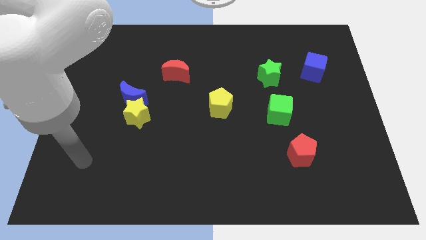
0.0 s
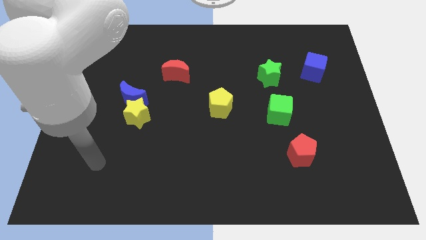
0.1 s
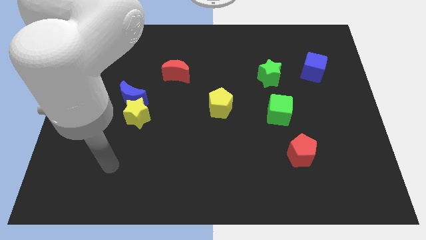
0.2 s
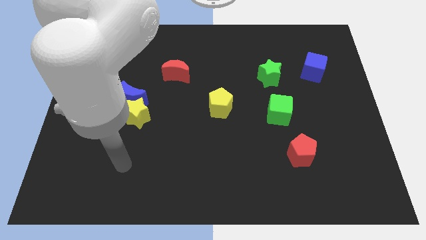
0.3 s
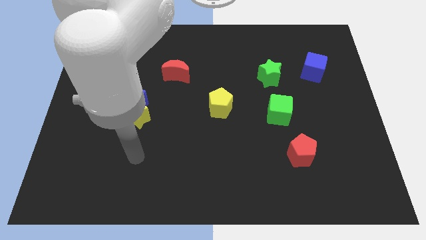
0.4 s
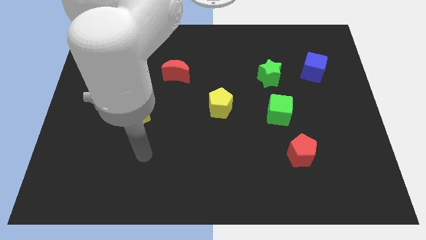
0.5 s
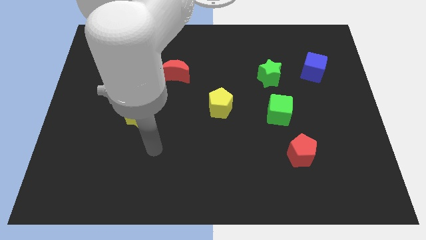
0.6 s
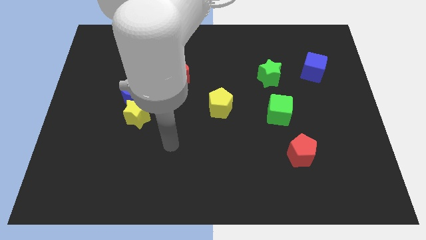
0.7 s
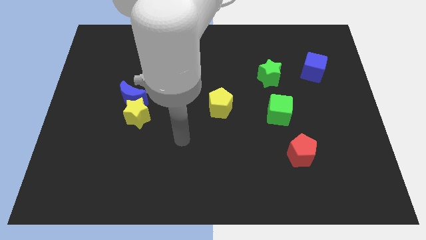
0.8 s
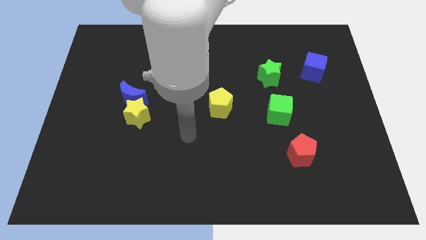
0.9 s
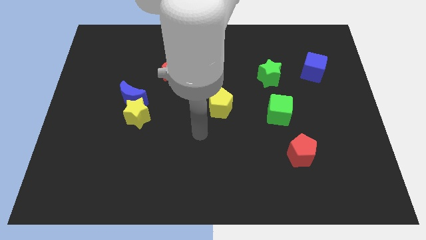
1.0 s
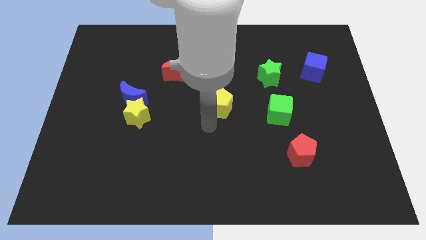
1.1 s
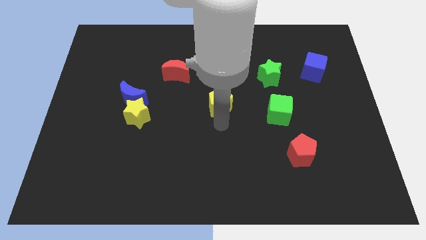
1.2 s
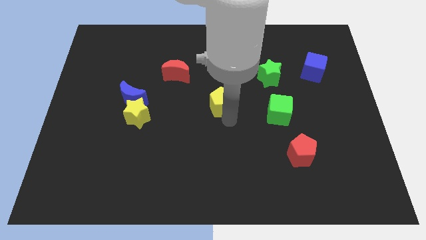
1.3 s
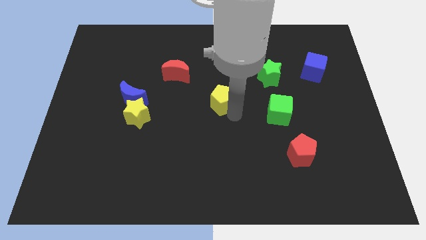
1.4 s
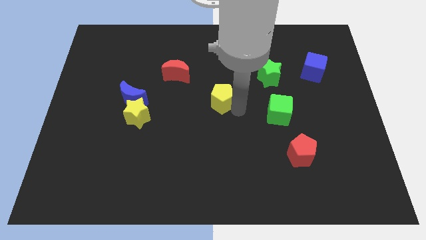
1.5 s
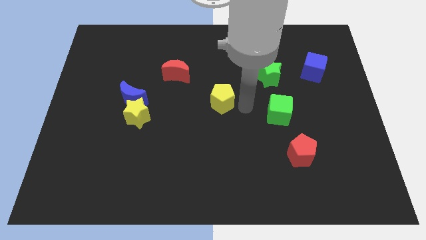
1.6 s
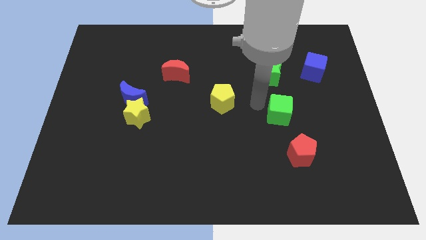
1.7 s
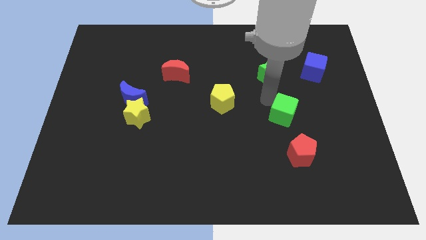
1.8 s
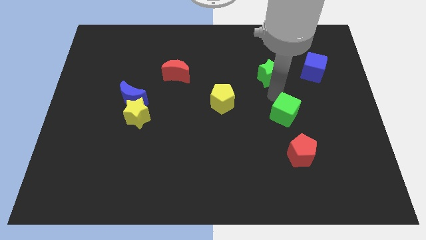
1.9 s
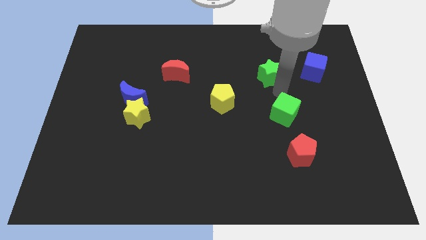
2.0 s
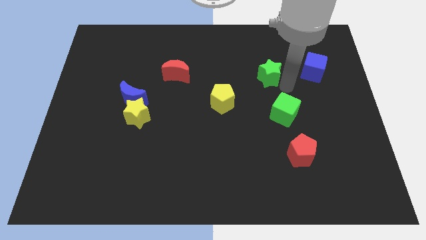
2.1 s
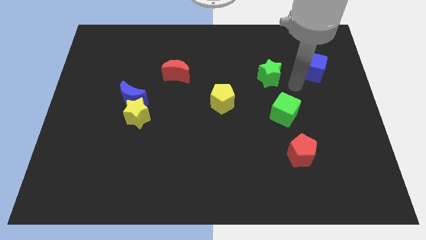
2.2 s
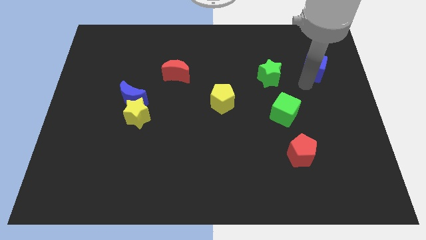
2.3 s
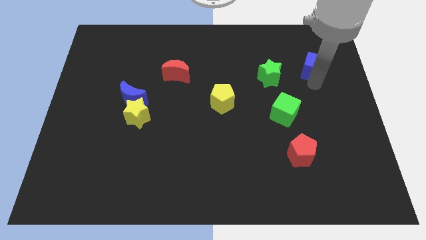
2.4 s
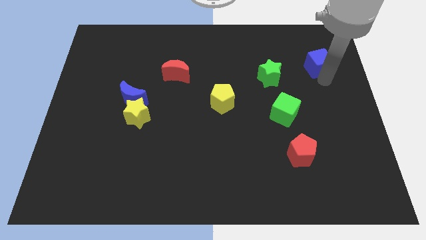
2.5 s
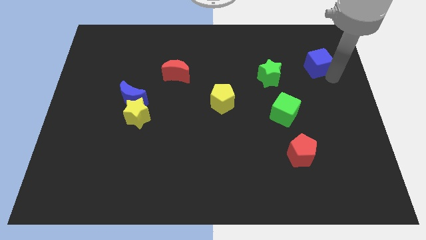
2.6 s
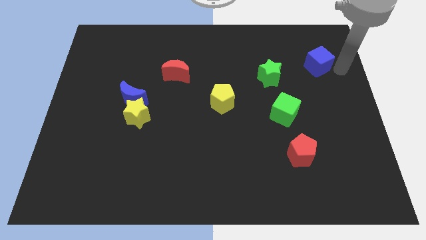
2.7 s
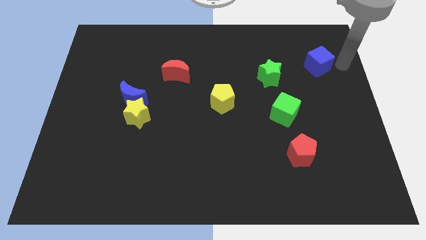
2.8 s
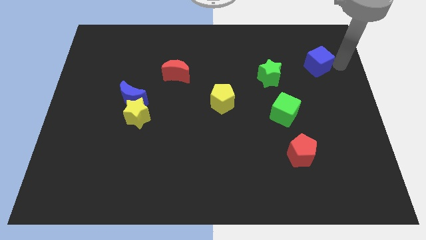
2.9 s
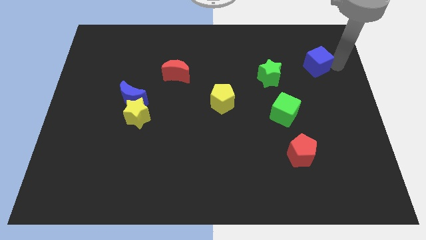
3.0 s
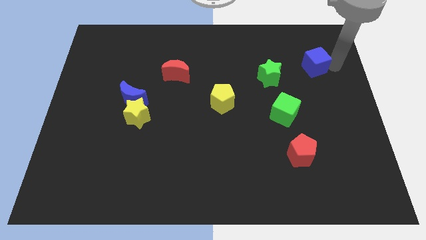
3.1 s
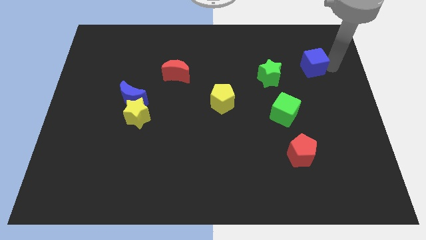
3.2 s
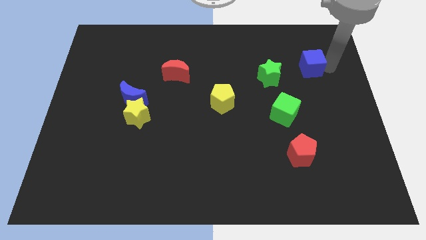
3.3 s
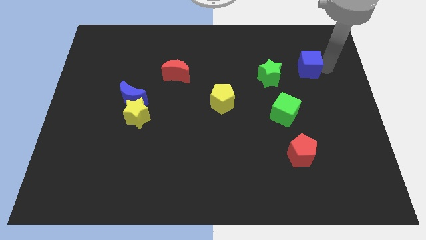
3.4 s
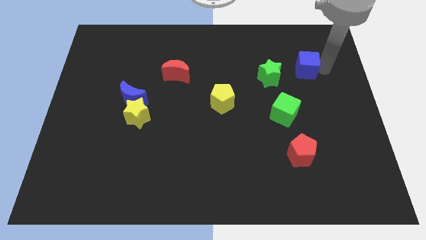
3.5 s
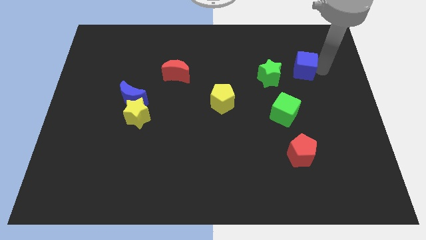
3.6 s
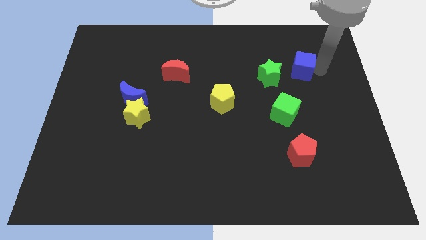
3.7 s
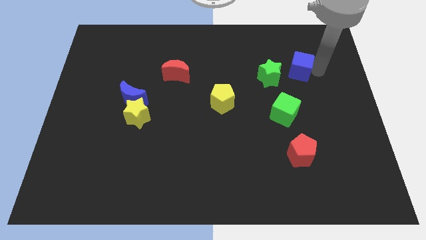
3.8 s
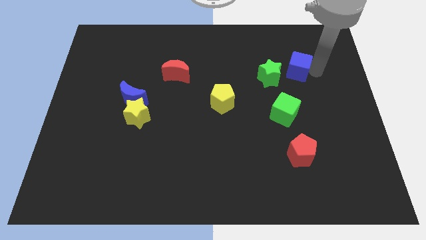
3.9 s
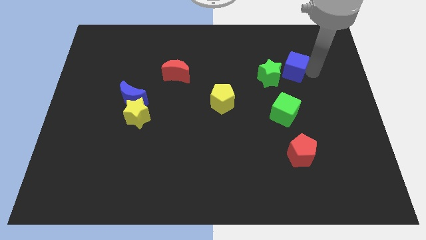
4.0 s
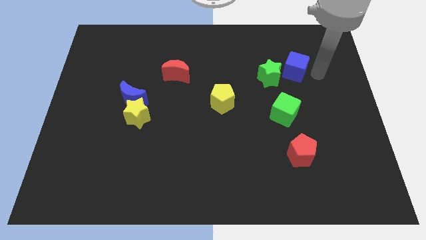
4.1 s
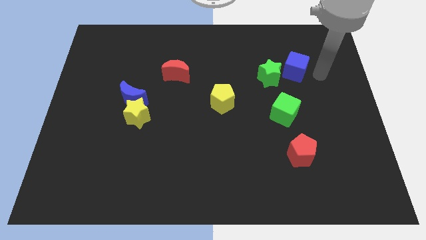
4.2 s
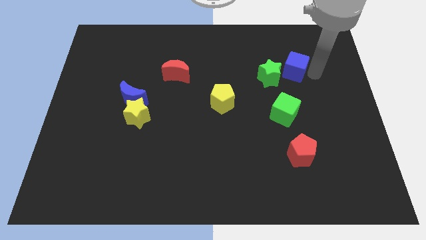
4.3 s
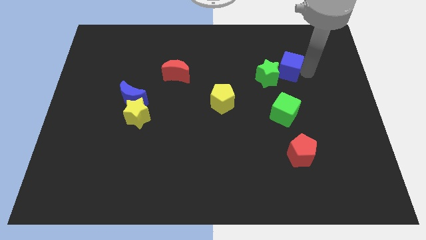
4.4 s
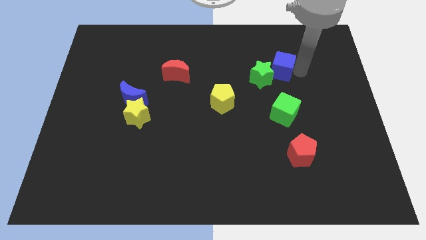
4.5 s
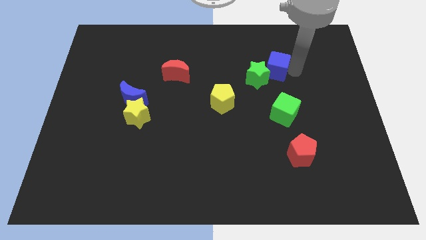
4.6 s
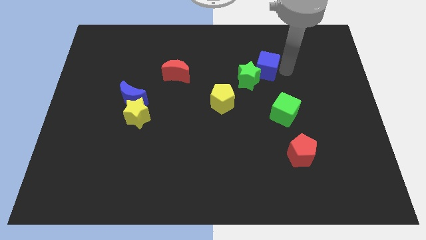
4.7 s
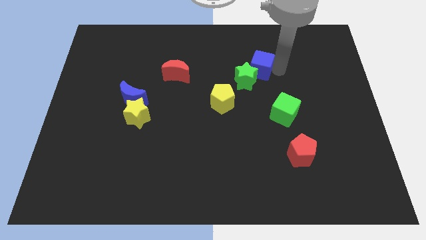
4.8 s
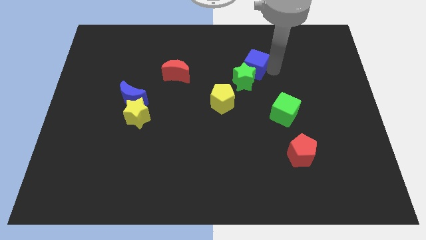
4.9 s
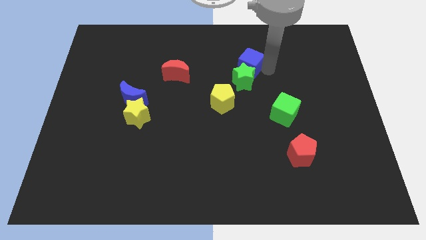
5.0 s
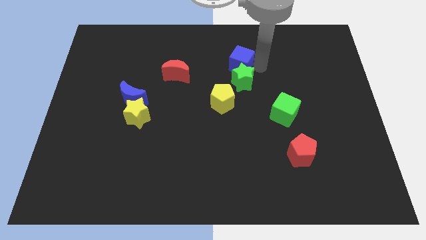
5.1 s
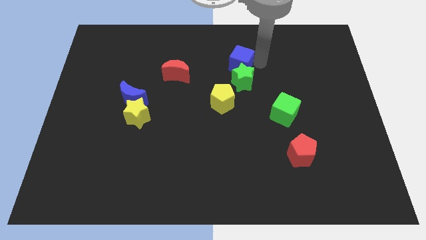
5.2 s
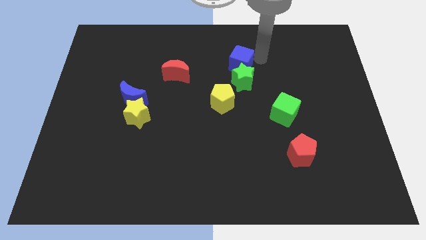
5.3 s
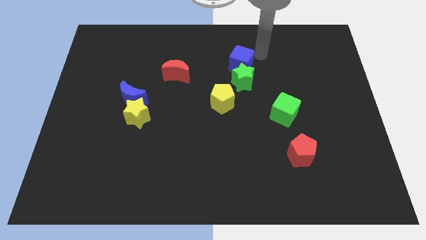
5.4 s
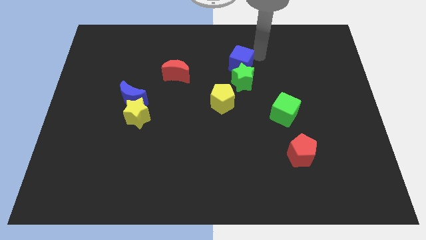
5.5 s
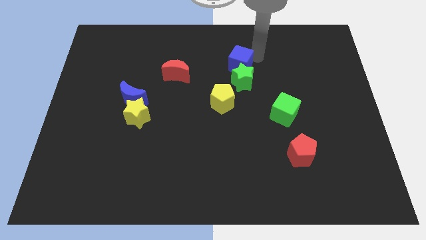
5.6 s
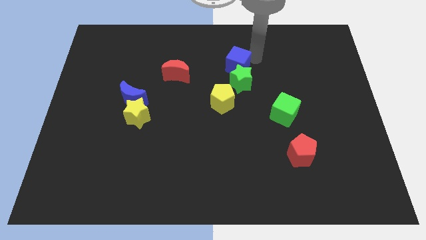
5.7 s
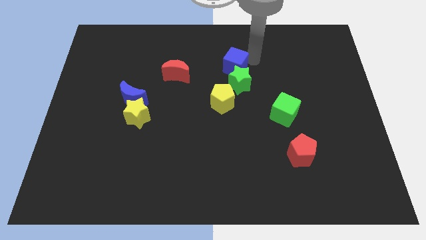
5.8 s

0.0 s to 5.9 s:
push the blue cube to the right side of the red moon

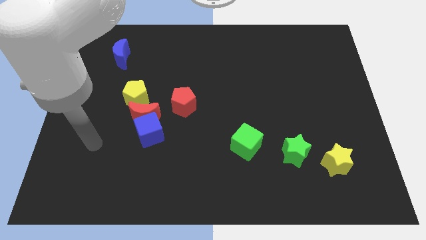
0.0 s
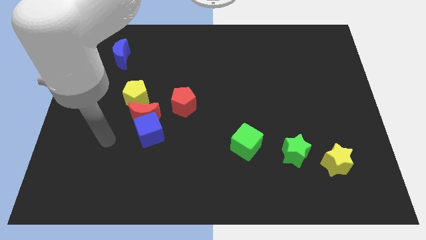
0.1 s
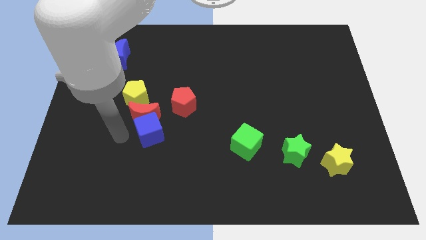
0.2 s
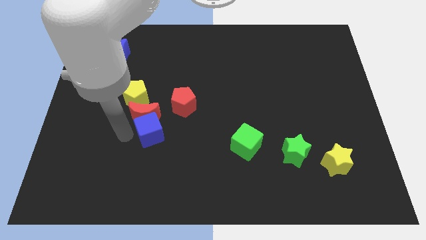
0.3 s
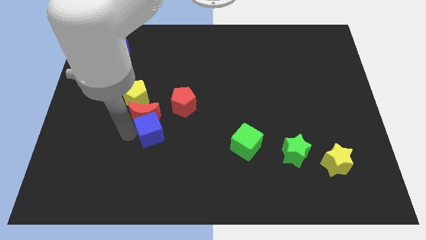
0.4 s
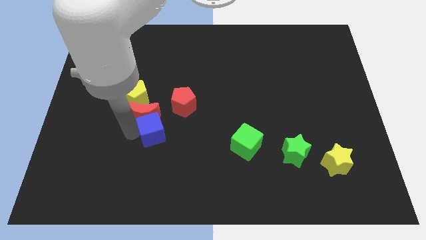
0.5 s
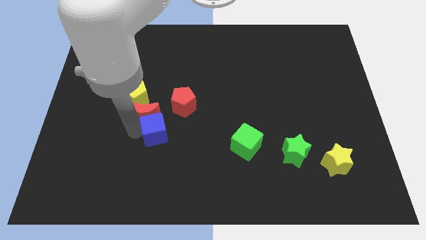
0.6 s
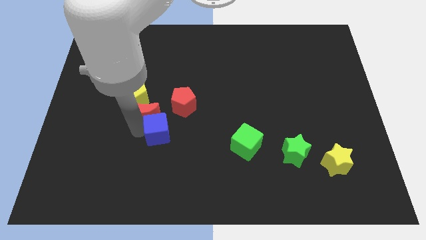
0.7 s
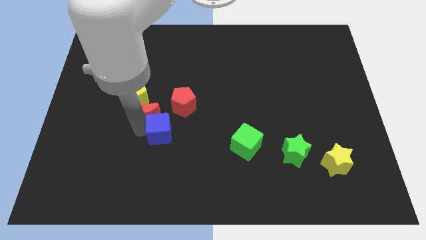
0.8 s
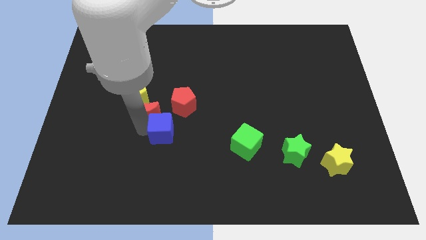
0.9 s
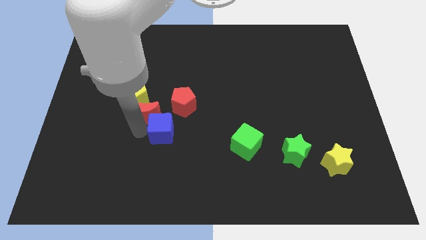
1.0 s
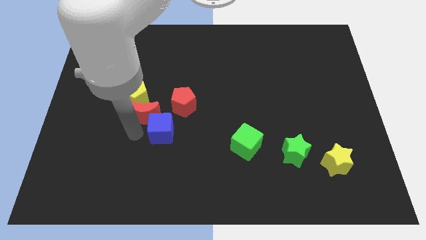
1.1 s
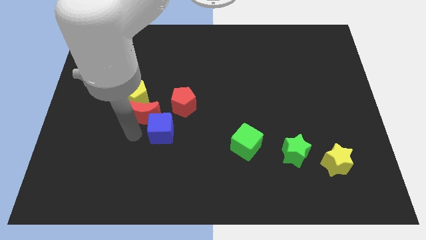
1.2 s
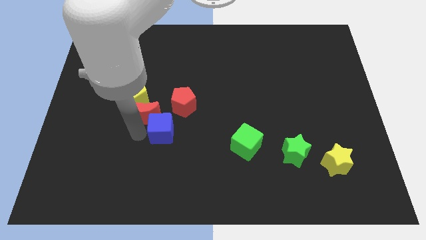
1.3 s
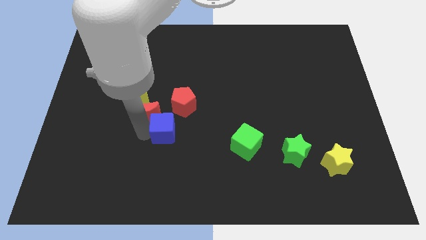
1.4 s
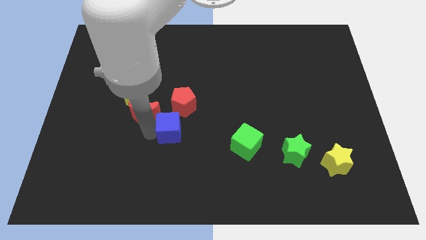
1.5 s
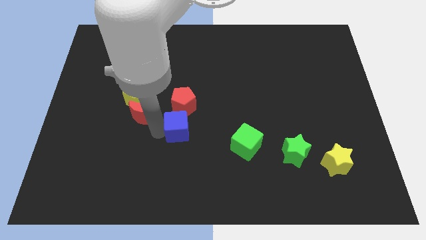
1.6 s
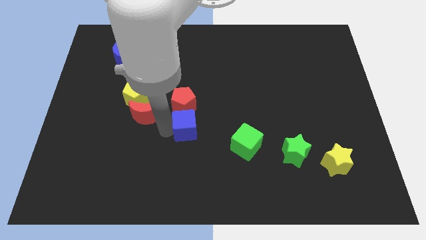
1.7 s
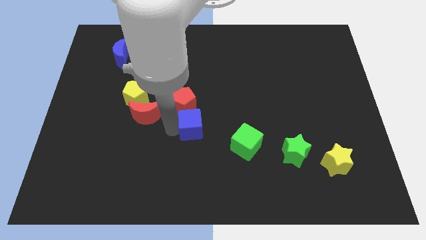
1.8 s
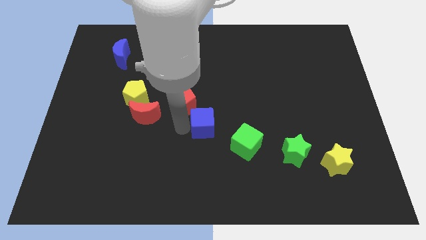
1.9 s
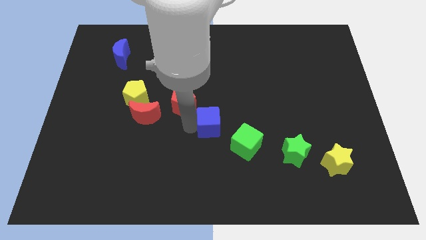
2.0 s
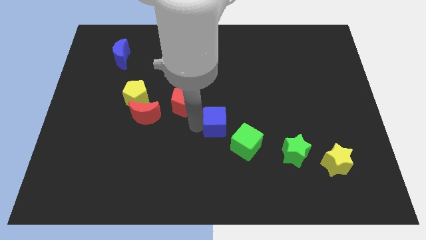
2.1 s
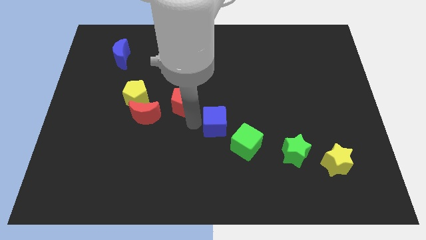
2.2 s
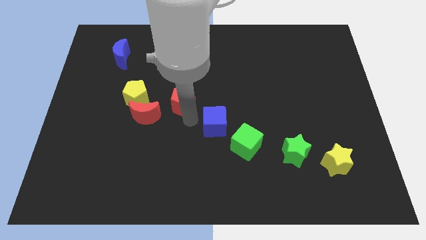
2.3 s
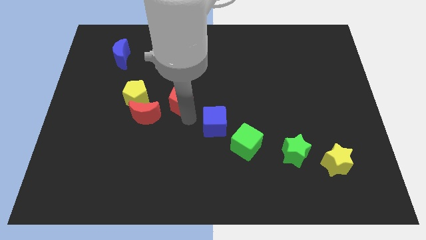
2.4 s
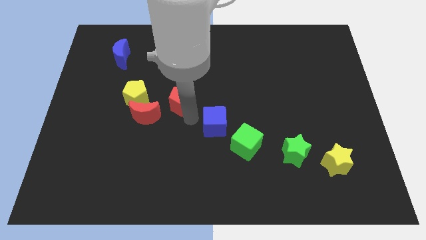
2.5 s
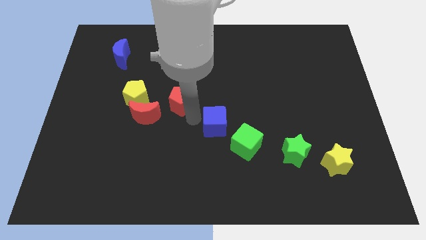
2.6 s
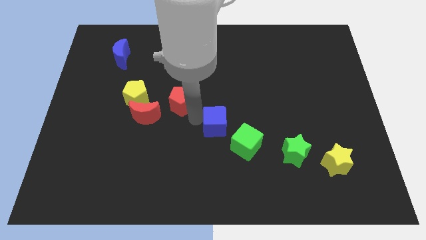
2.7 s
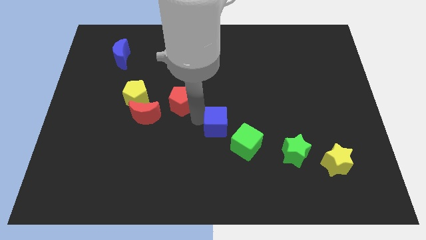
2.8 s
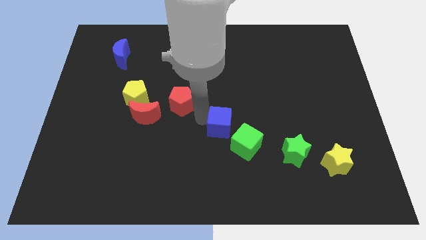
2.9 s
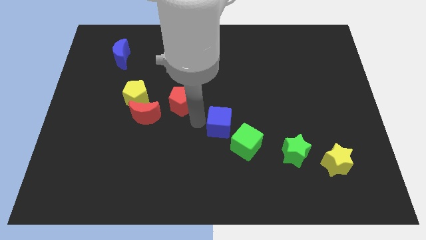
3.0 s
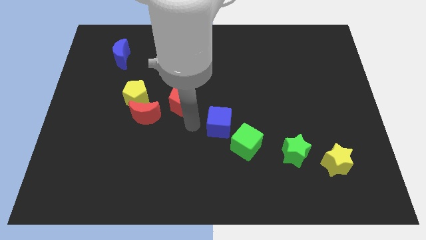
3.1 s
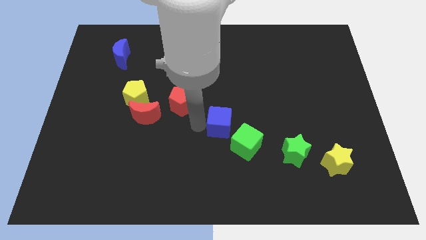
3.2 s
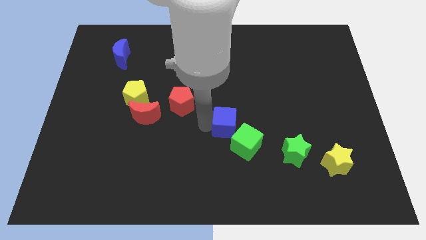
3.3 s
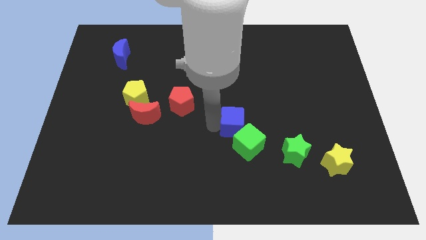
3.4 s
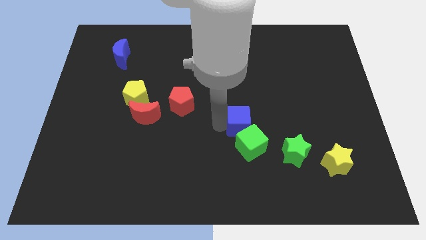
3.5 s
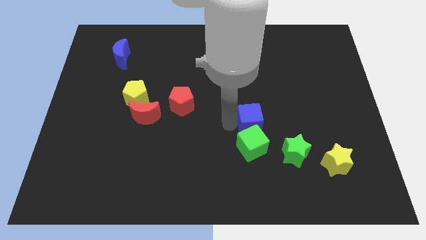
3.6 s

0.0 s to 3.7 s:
slide the blue cube diagonally up and to the right of the green cube
